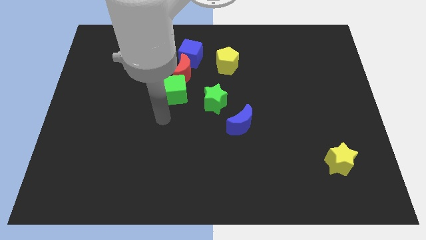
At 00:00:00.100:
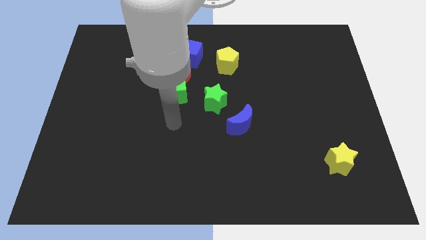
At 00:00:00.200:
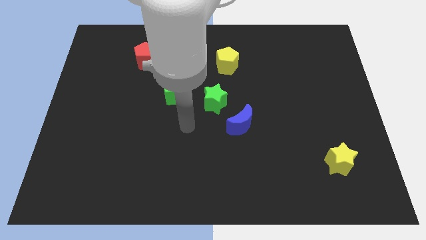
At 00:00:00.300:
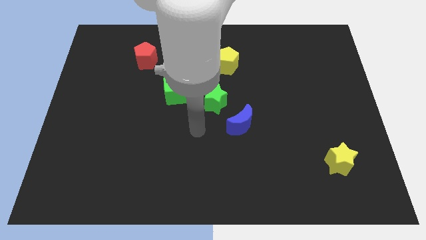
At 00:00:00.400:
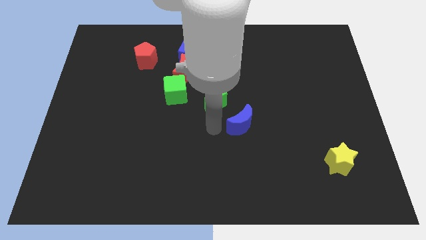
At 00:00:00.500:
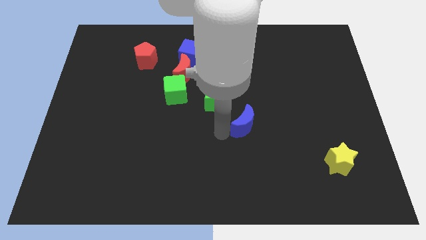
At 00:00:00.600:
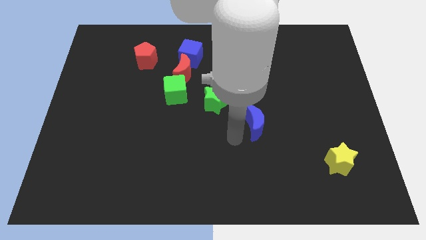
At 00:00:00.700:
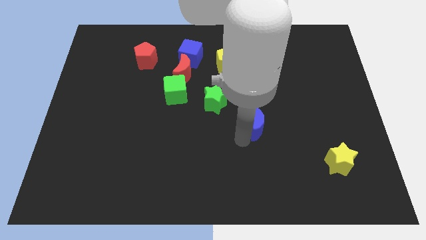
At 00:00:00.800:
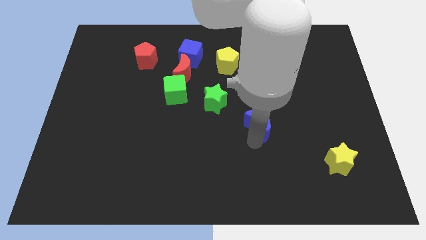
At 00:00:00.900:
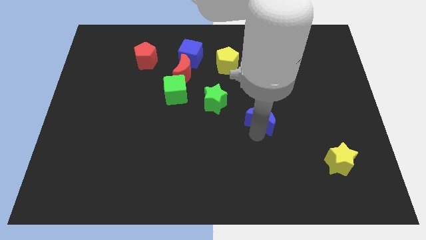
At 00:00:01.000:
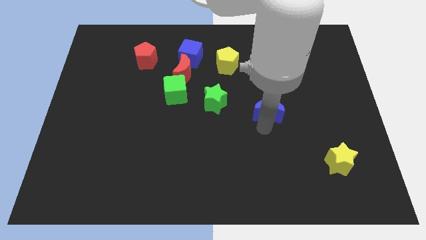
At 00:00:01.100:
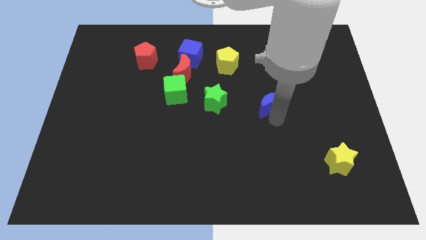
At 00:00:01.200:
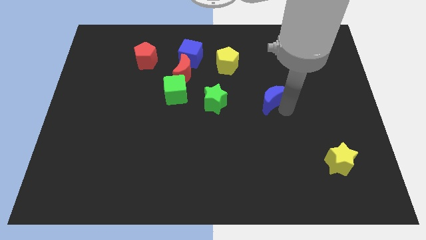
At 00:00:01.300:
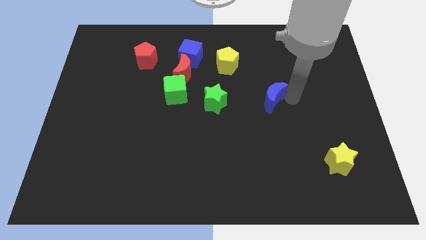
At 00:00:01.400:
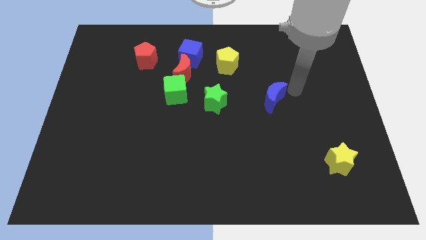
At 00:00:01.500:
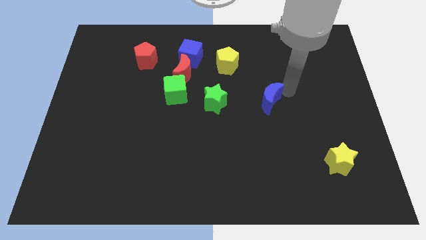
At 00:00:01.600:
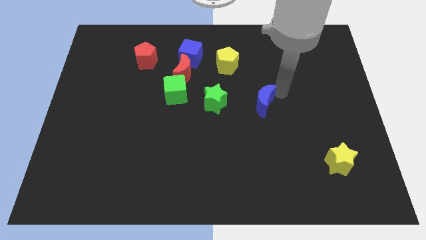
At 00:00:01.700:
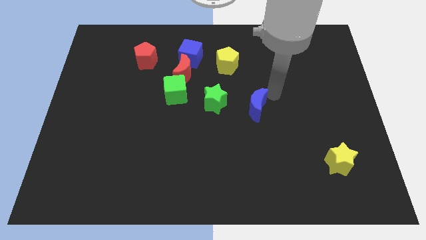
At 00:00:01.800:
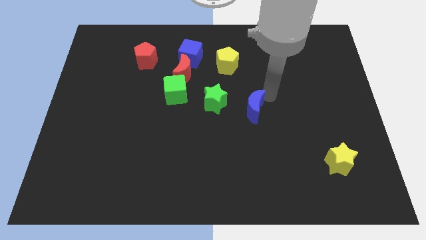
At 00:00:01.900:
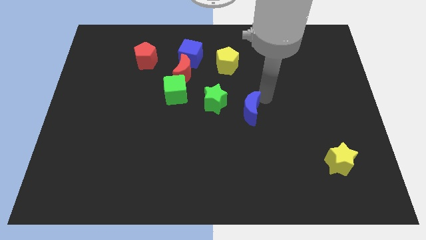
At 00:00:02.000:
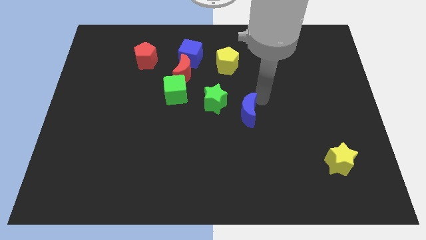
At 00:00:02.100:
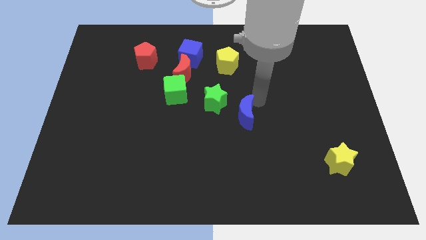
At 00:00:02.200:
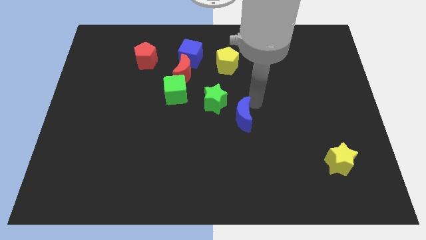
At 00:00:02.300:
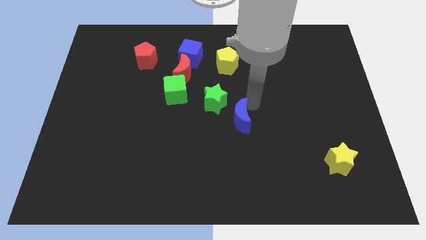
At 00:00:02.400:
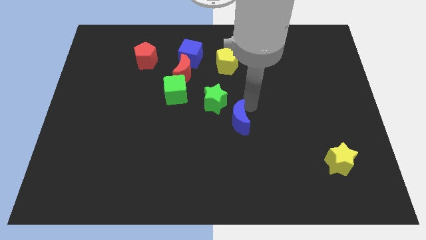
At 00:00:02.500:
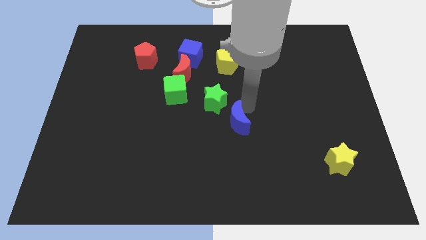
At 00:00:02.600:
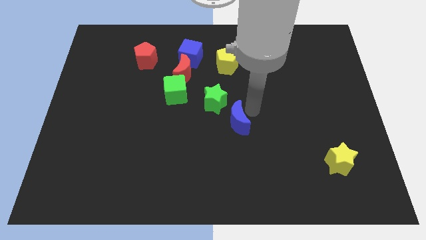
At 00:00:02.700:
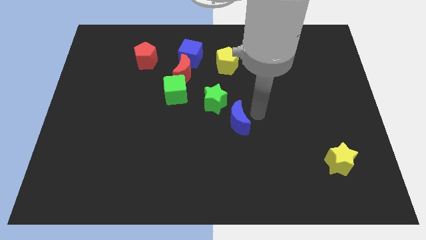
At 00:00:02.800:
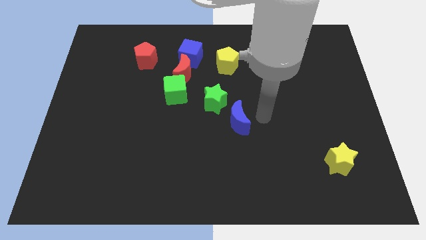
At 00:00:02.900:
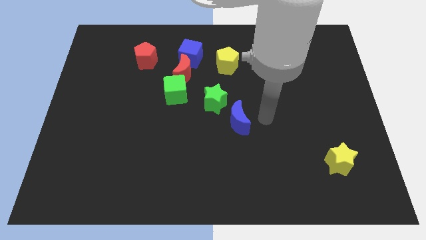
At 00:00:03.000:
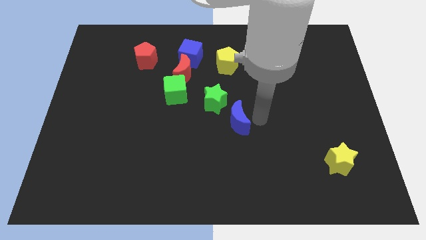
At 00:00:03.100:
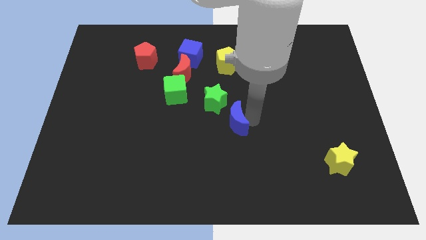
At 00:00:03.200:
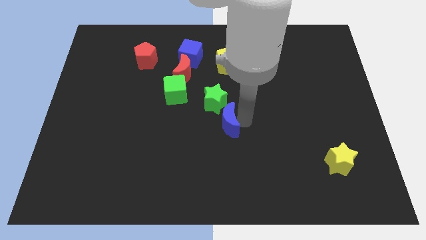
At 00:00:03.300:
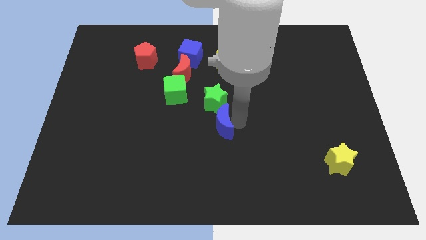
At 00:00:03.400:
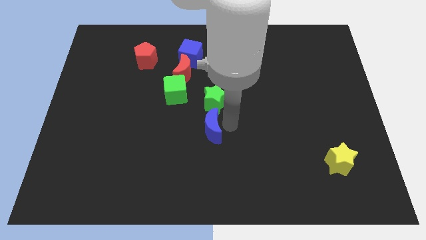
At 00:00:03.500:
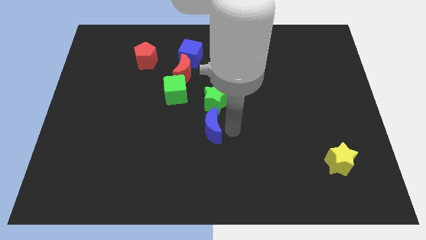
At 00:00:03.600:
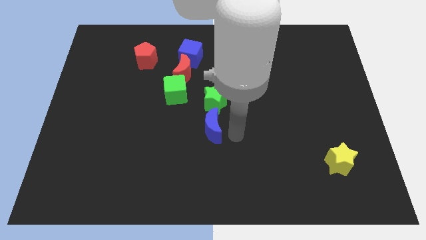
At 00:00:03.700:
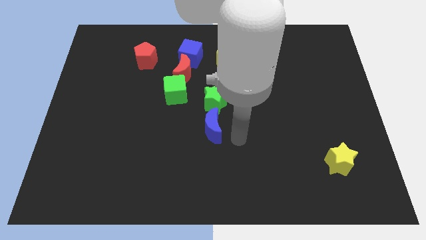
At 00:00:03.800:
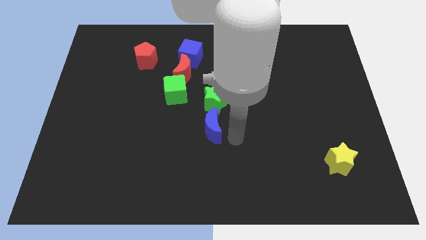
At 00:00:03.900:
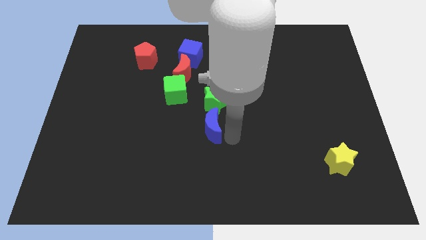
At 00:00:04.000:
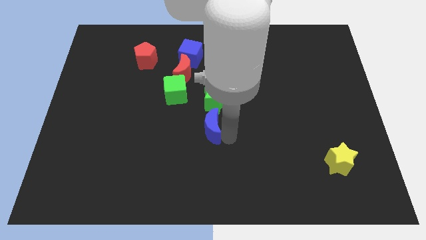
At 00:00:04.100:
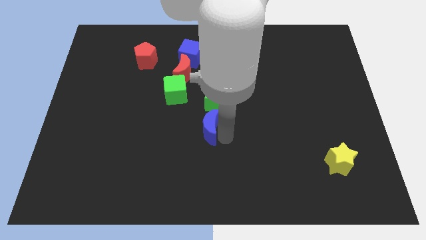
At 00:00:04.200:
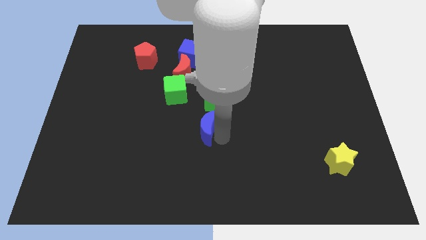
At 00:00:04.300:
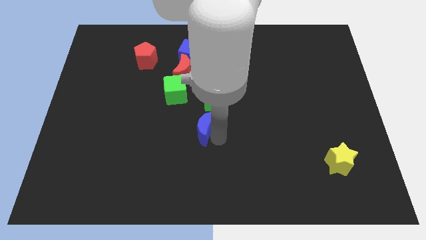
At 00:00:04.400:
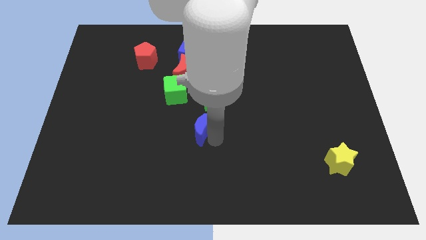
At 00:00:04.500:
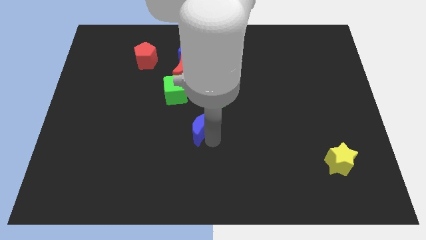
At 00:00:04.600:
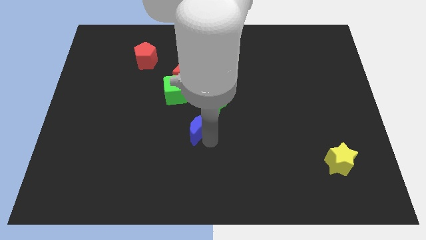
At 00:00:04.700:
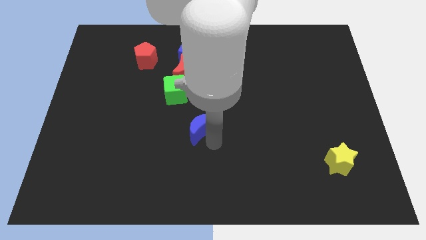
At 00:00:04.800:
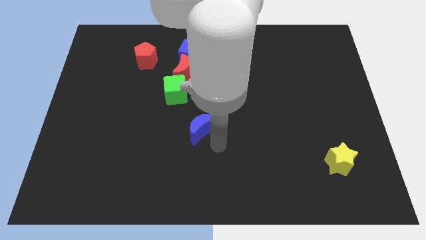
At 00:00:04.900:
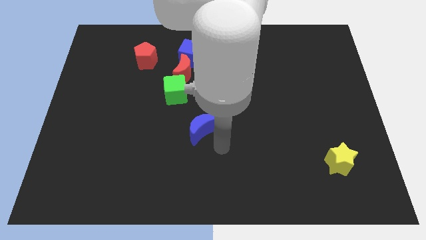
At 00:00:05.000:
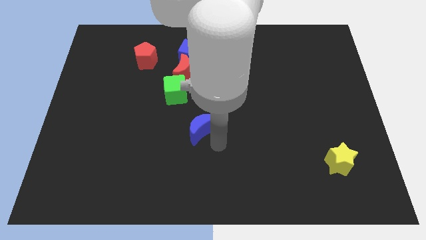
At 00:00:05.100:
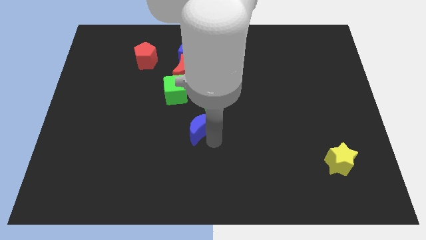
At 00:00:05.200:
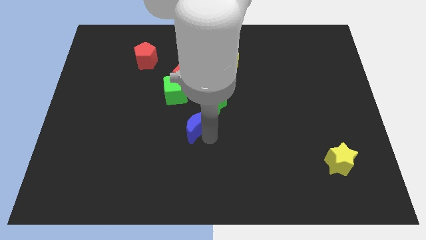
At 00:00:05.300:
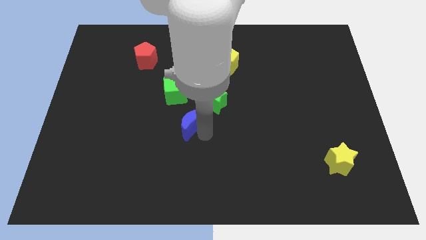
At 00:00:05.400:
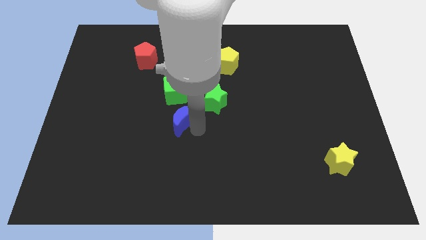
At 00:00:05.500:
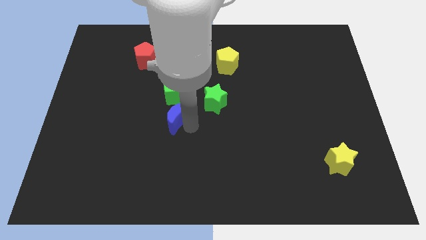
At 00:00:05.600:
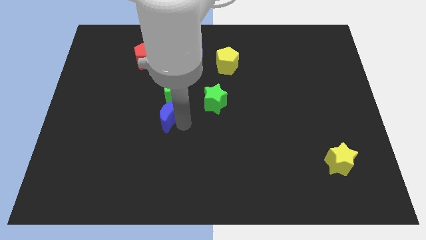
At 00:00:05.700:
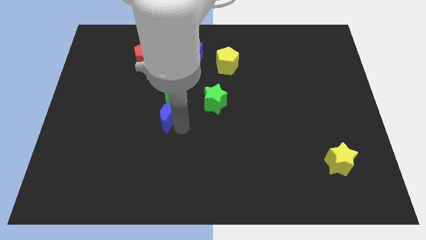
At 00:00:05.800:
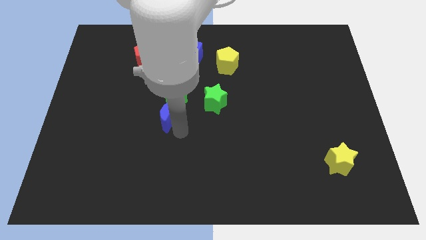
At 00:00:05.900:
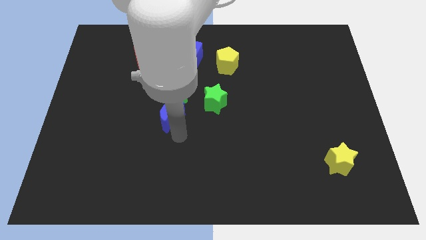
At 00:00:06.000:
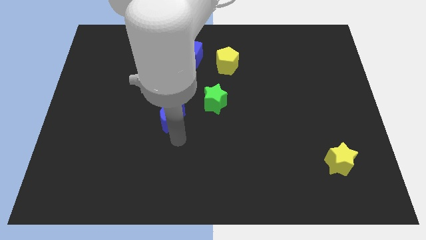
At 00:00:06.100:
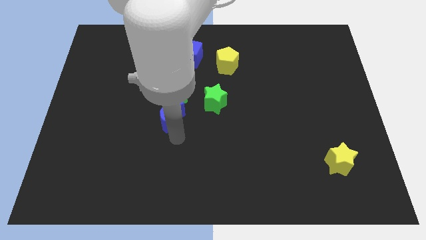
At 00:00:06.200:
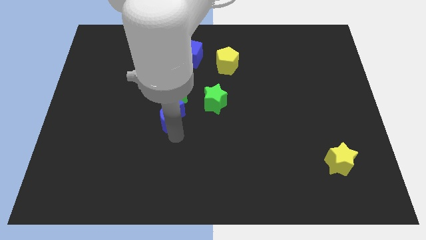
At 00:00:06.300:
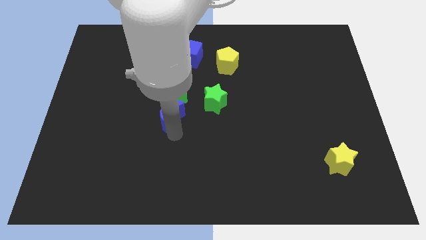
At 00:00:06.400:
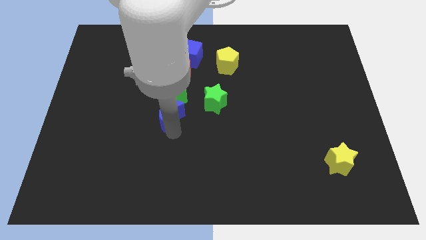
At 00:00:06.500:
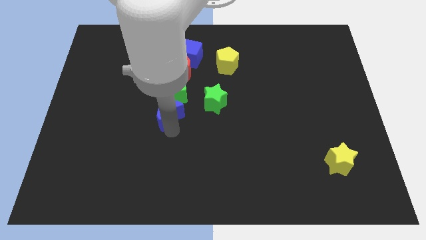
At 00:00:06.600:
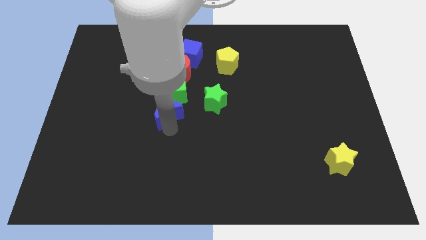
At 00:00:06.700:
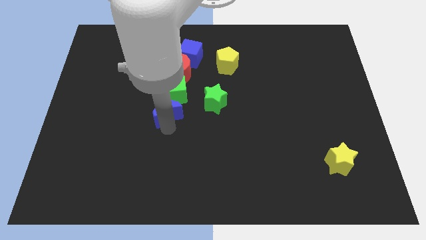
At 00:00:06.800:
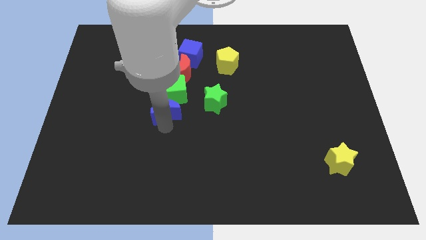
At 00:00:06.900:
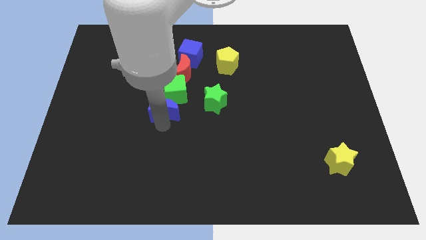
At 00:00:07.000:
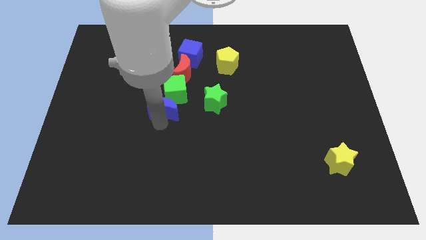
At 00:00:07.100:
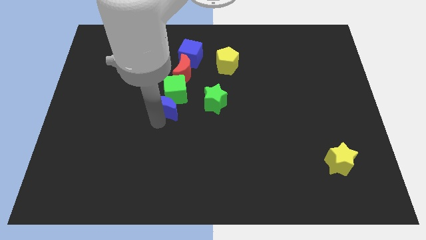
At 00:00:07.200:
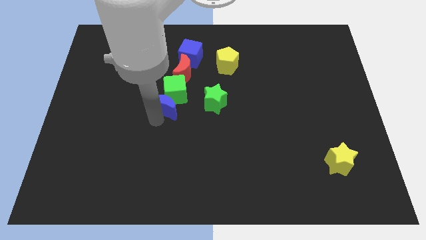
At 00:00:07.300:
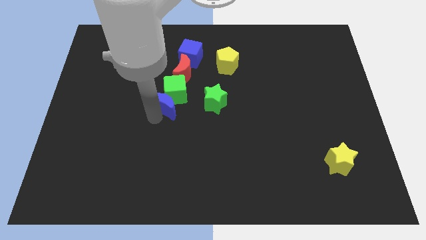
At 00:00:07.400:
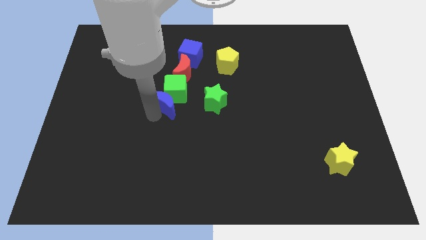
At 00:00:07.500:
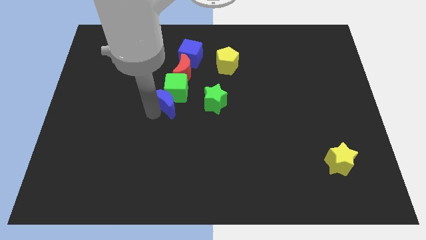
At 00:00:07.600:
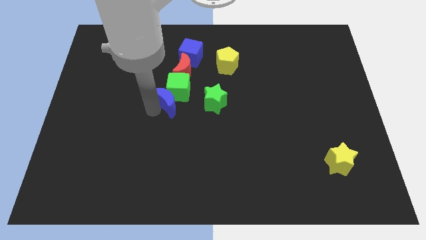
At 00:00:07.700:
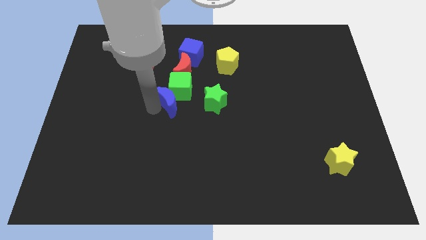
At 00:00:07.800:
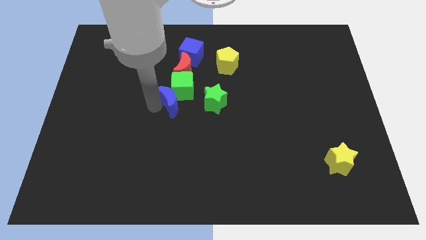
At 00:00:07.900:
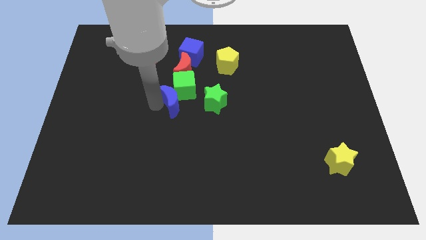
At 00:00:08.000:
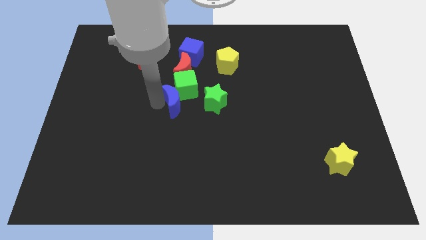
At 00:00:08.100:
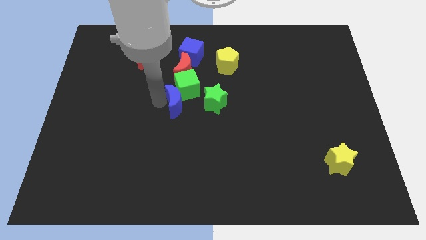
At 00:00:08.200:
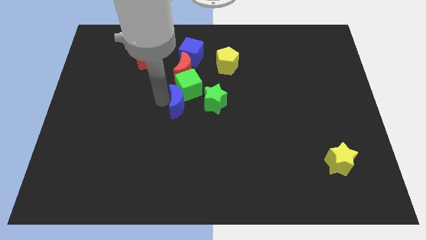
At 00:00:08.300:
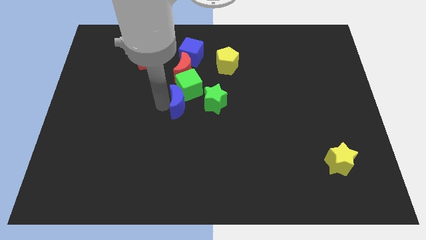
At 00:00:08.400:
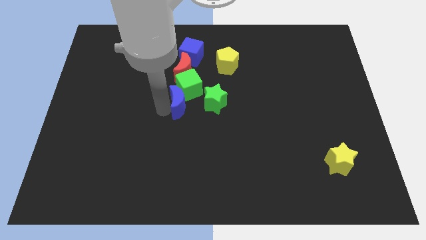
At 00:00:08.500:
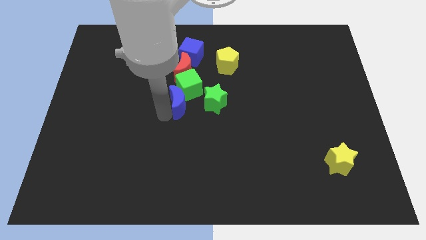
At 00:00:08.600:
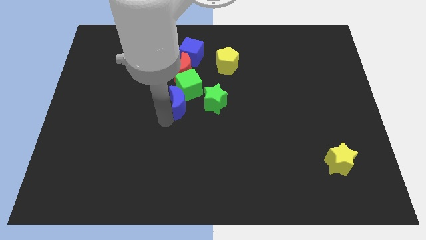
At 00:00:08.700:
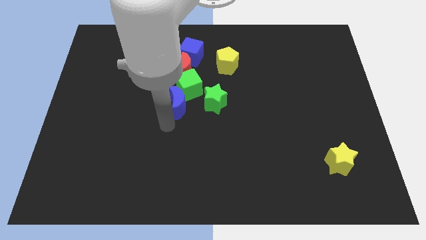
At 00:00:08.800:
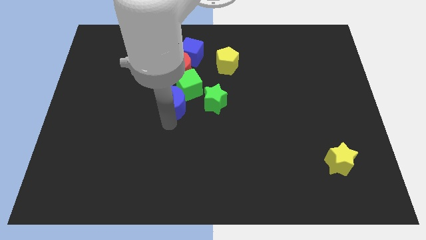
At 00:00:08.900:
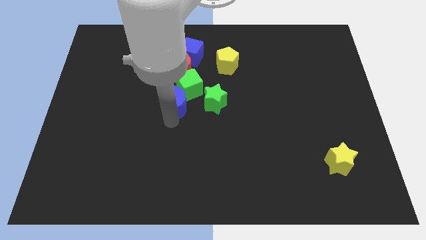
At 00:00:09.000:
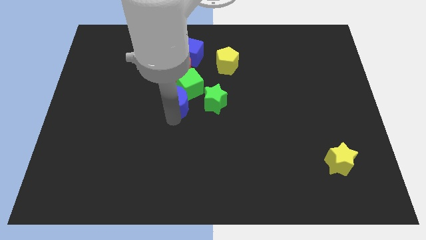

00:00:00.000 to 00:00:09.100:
push the blue moon below the blue cube
